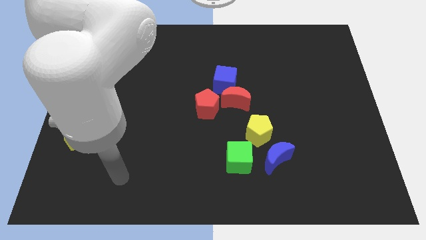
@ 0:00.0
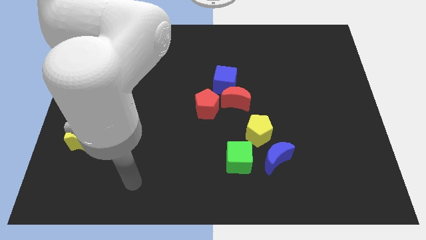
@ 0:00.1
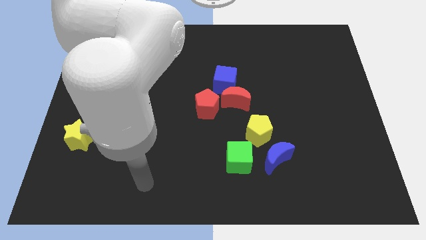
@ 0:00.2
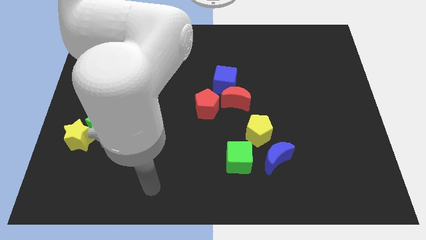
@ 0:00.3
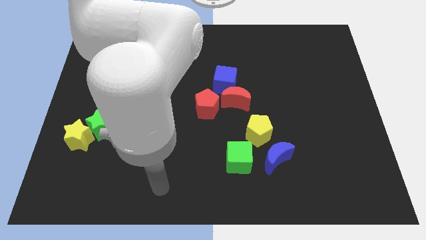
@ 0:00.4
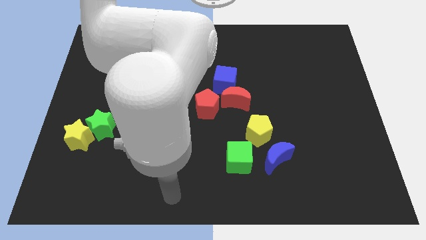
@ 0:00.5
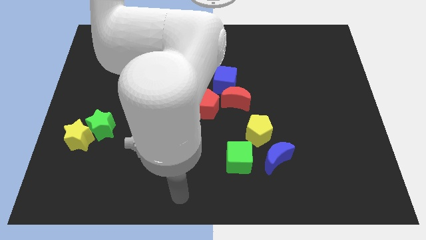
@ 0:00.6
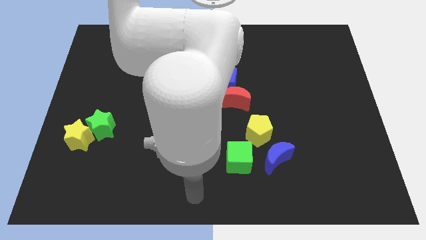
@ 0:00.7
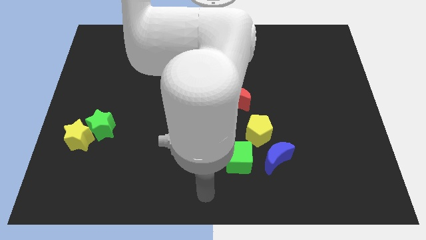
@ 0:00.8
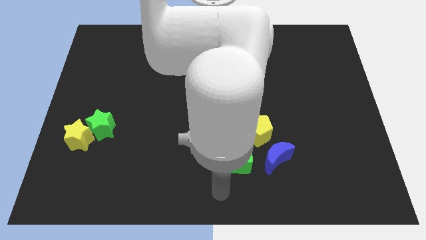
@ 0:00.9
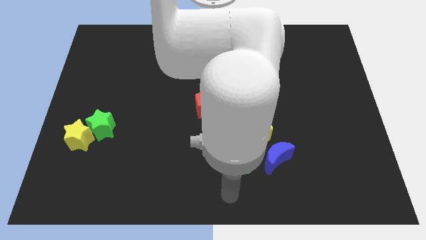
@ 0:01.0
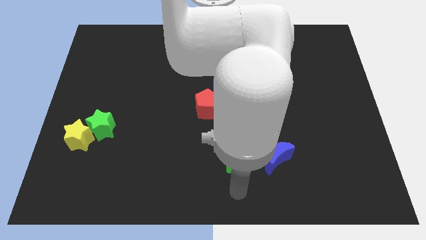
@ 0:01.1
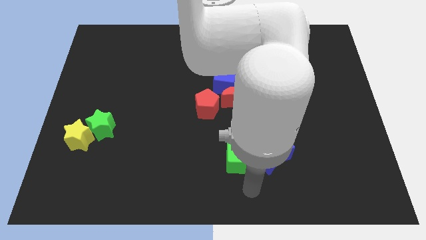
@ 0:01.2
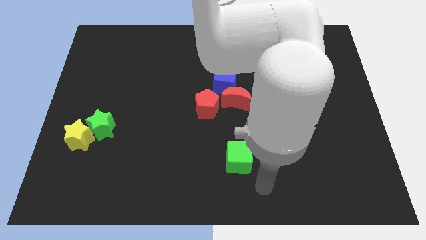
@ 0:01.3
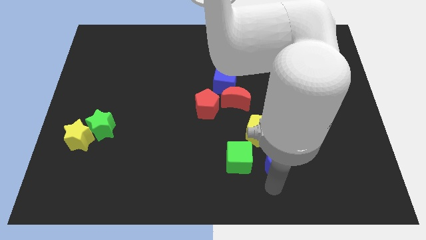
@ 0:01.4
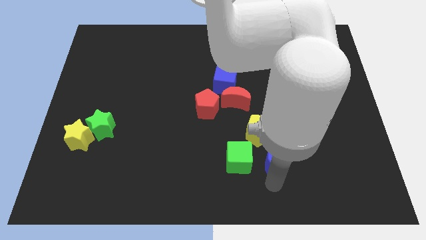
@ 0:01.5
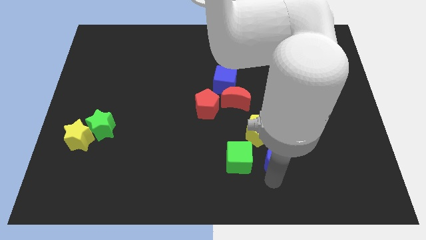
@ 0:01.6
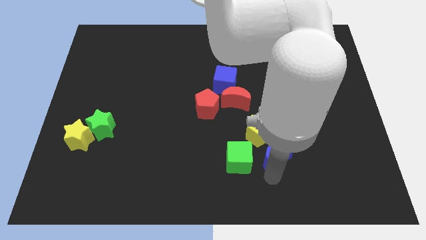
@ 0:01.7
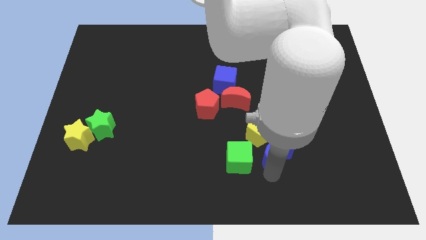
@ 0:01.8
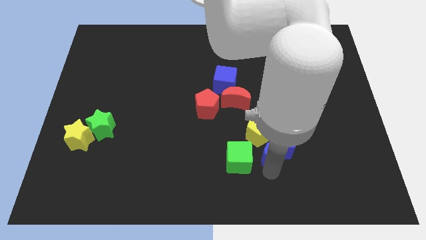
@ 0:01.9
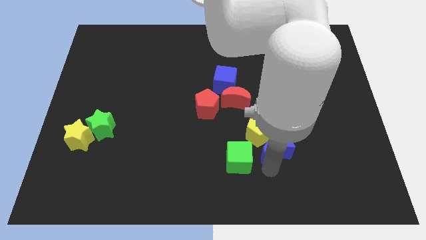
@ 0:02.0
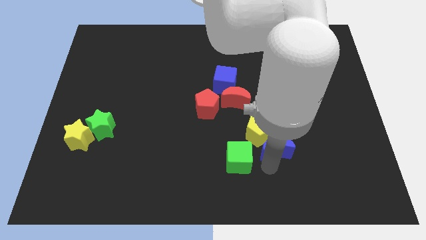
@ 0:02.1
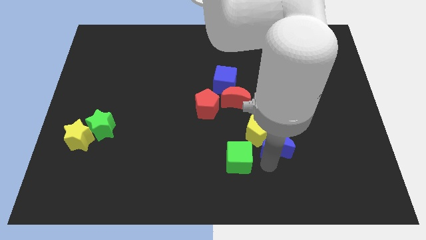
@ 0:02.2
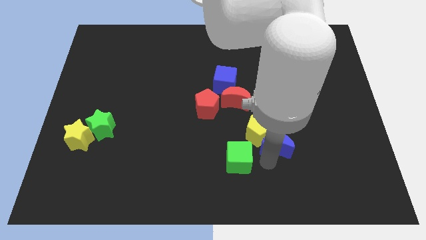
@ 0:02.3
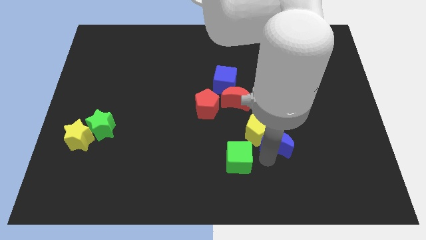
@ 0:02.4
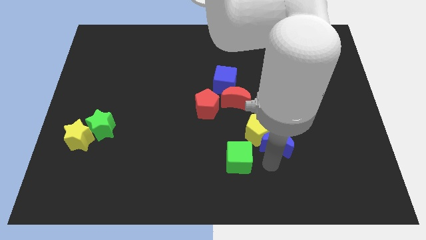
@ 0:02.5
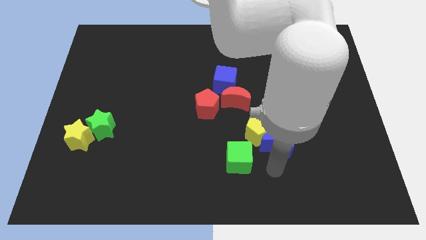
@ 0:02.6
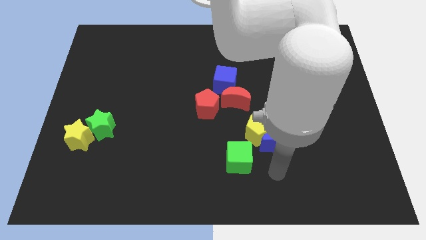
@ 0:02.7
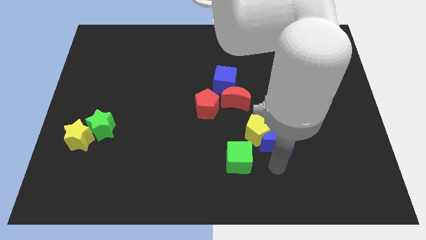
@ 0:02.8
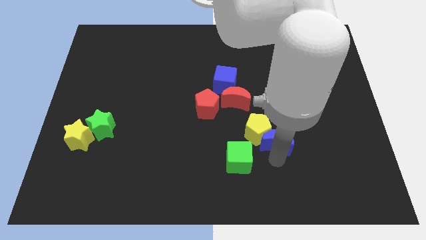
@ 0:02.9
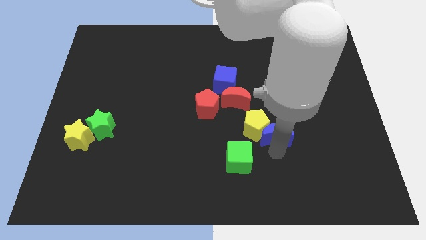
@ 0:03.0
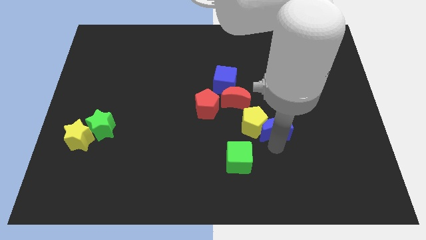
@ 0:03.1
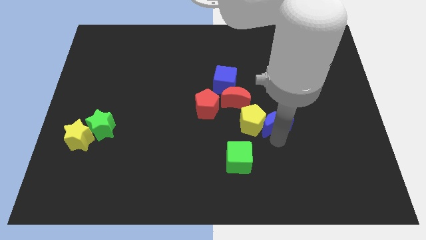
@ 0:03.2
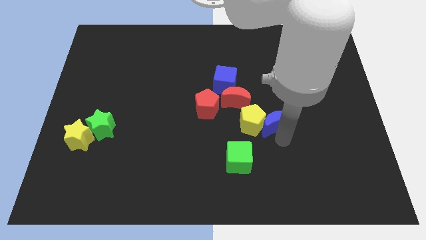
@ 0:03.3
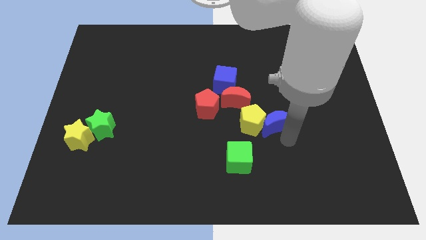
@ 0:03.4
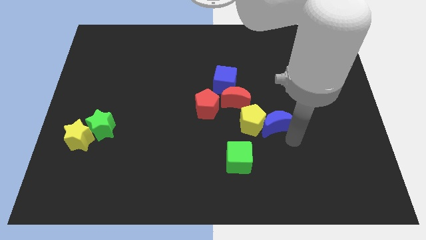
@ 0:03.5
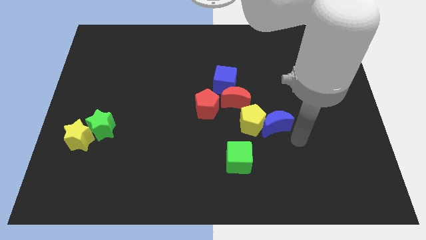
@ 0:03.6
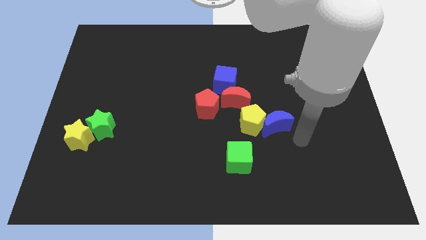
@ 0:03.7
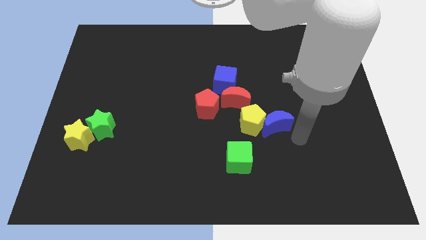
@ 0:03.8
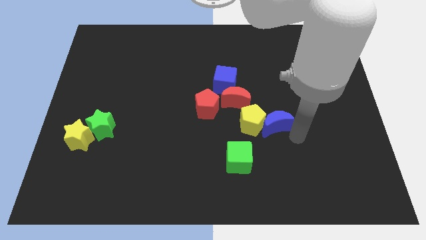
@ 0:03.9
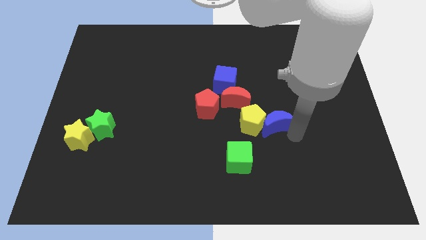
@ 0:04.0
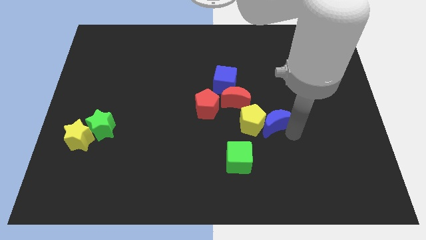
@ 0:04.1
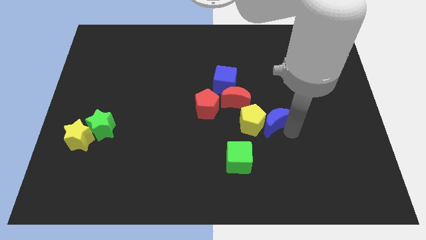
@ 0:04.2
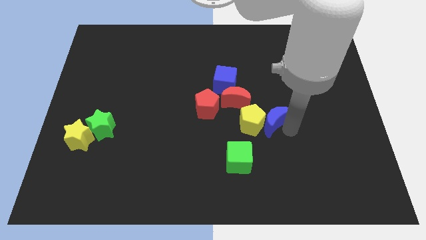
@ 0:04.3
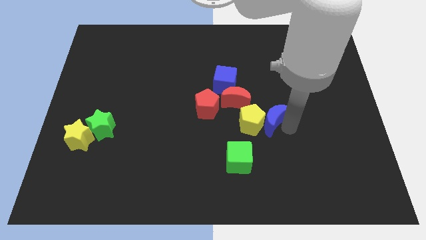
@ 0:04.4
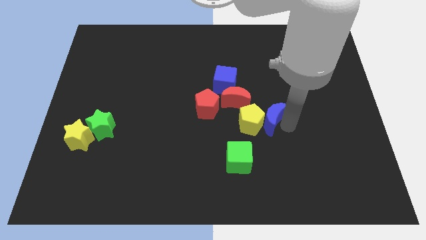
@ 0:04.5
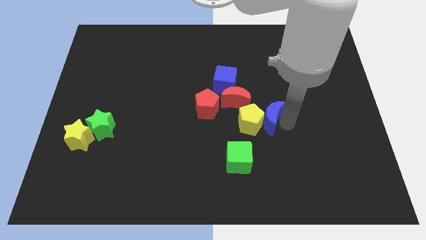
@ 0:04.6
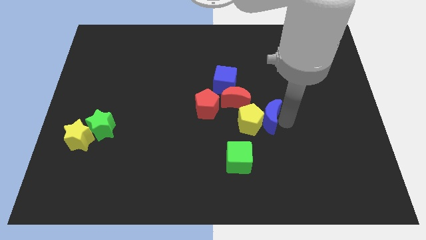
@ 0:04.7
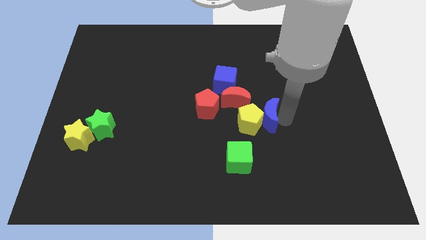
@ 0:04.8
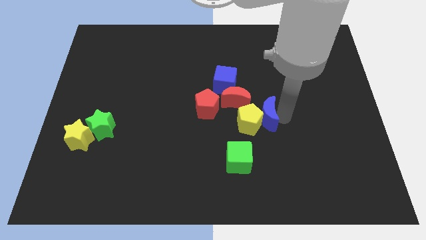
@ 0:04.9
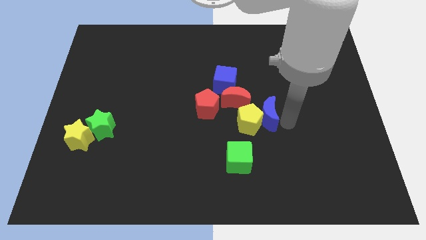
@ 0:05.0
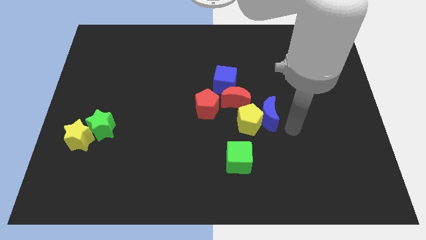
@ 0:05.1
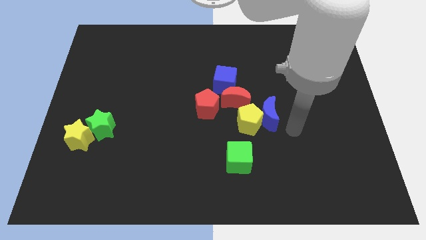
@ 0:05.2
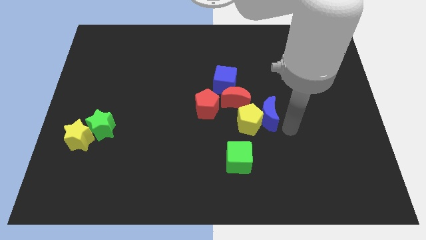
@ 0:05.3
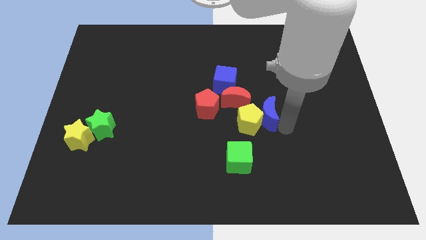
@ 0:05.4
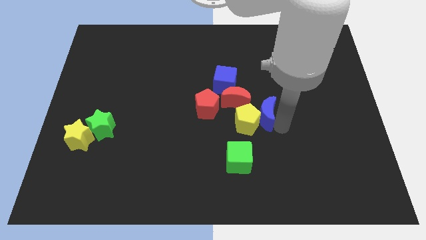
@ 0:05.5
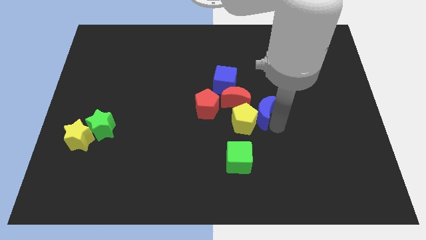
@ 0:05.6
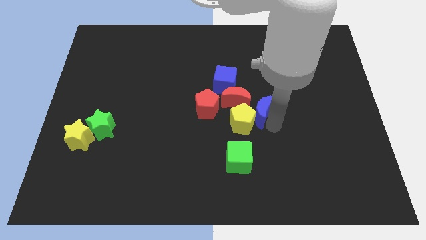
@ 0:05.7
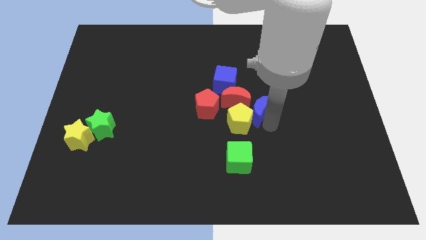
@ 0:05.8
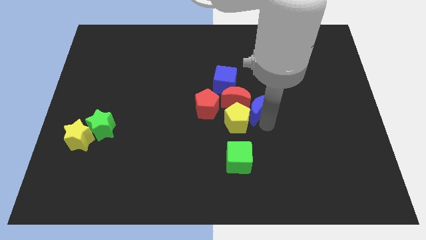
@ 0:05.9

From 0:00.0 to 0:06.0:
put the blue moon next to the red moon

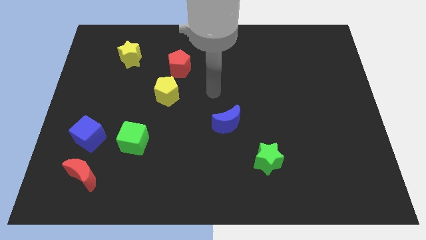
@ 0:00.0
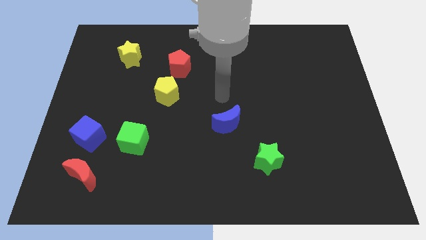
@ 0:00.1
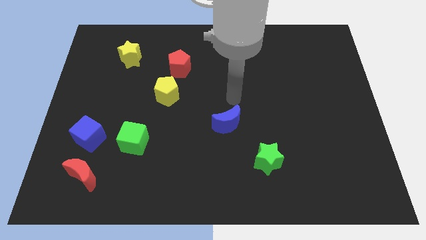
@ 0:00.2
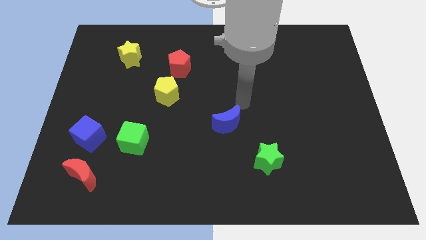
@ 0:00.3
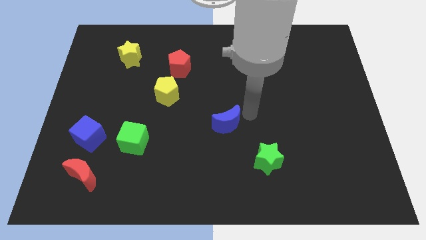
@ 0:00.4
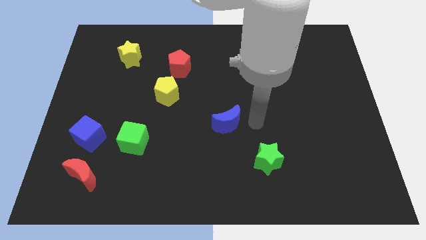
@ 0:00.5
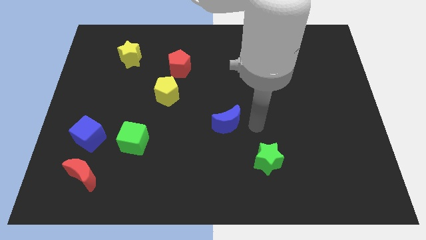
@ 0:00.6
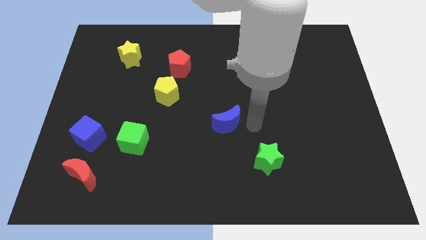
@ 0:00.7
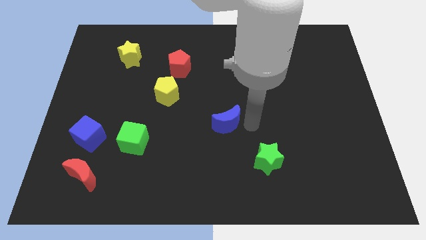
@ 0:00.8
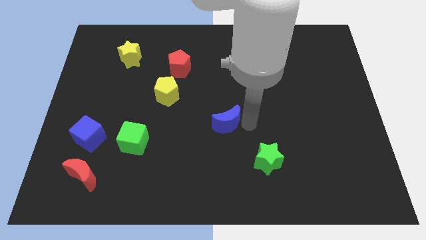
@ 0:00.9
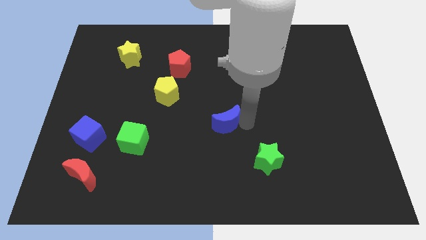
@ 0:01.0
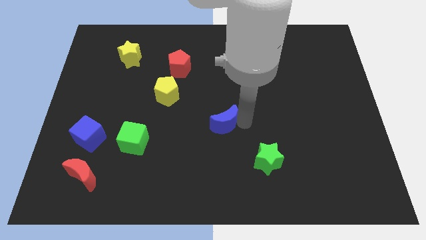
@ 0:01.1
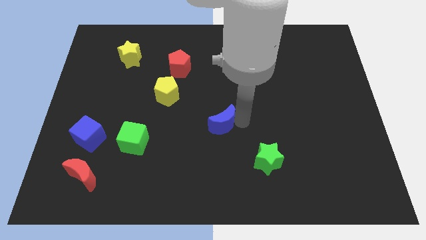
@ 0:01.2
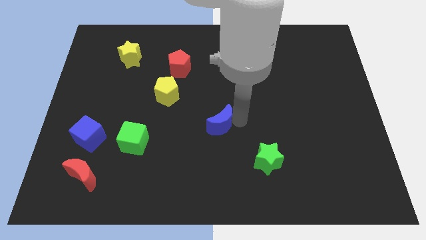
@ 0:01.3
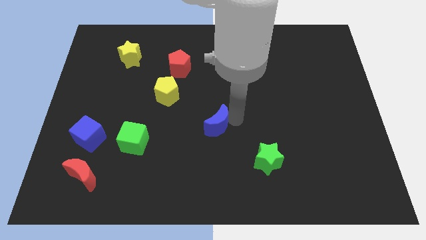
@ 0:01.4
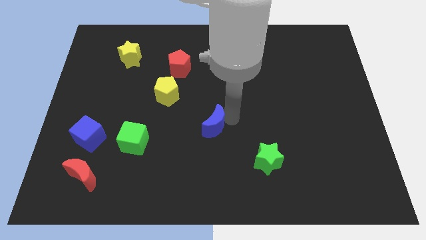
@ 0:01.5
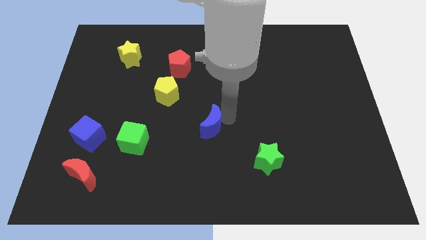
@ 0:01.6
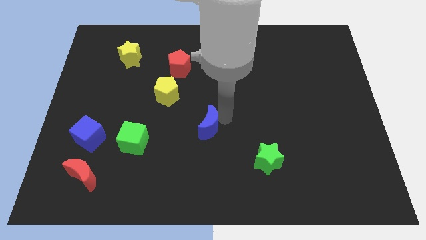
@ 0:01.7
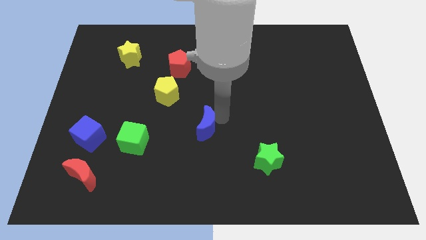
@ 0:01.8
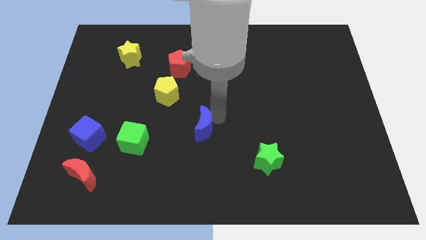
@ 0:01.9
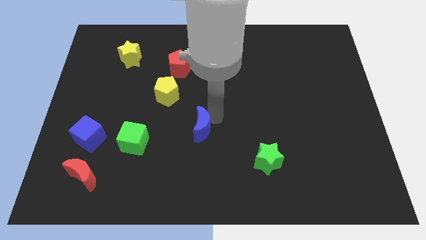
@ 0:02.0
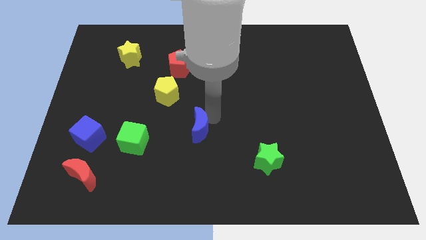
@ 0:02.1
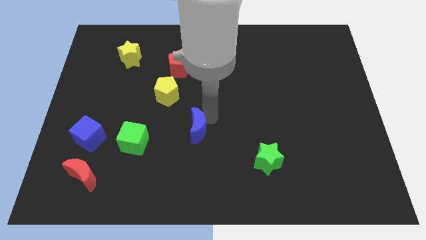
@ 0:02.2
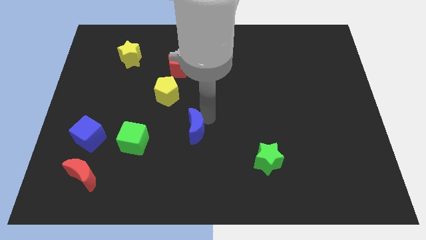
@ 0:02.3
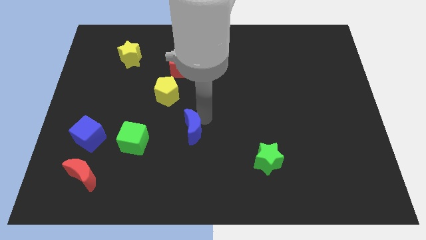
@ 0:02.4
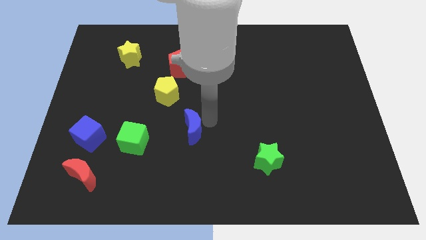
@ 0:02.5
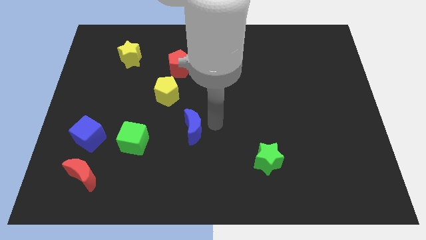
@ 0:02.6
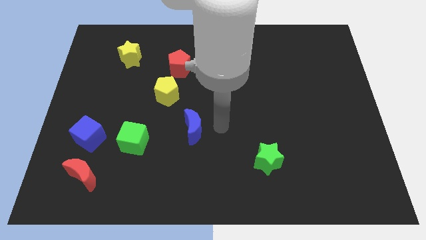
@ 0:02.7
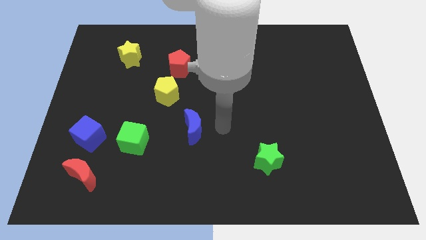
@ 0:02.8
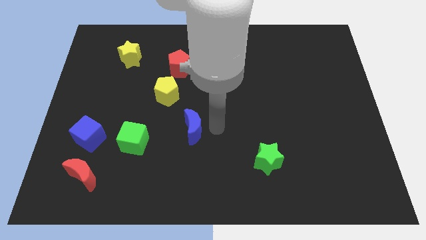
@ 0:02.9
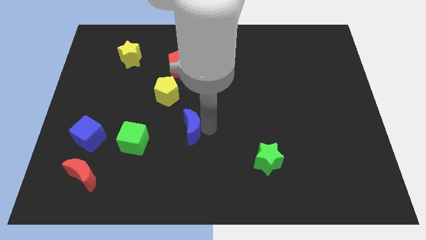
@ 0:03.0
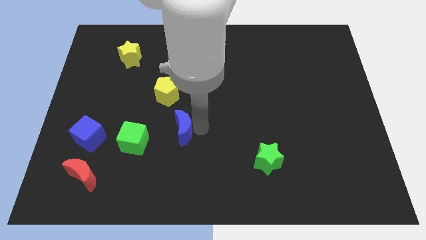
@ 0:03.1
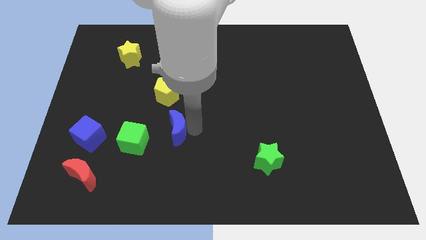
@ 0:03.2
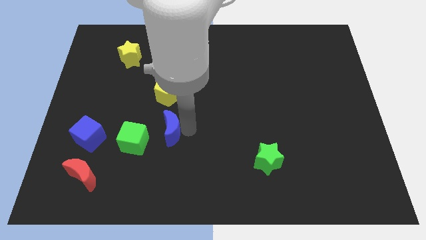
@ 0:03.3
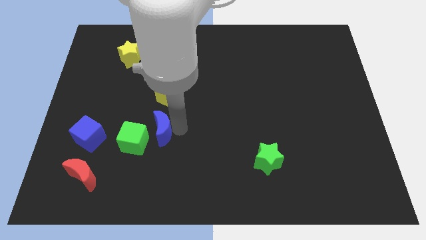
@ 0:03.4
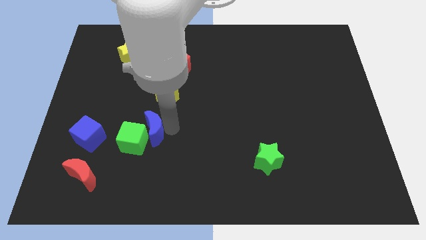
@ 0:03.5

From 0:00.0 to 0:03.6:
put the blue moon next to the green cube
